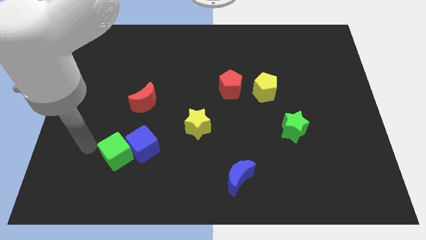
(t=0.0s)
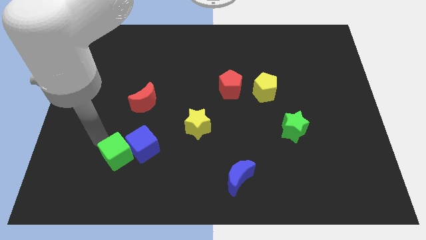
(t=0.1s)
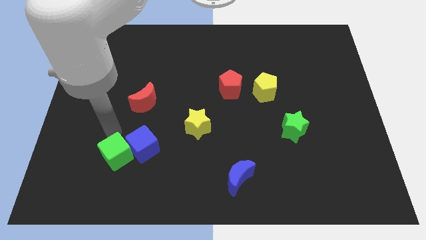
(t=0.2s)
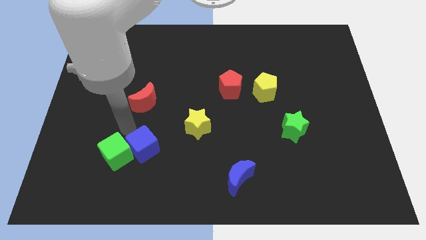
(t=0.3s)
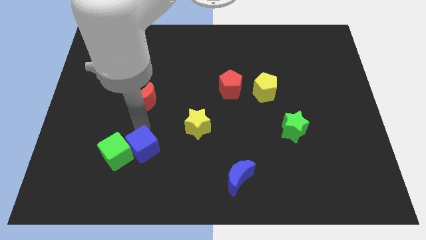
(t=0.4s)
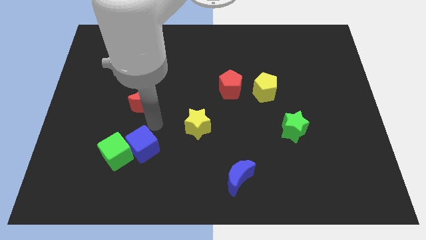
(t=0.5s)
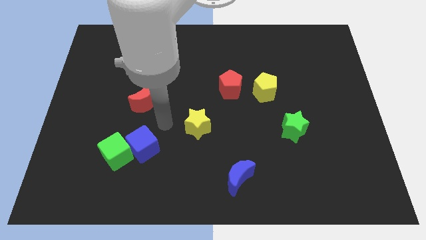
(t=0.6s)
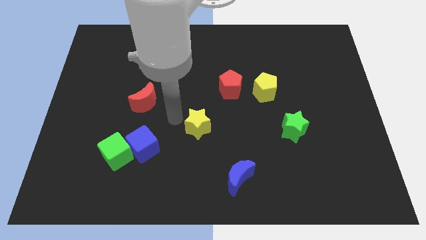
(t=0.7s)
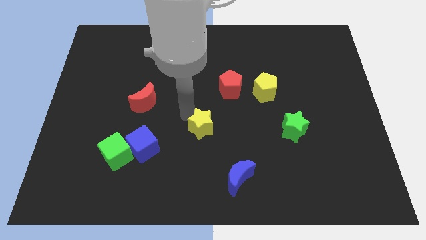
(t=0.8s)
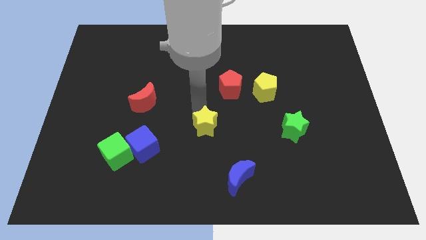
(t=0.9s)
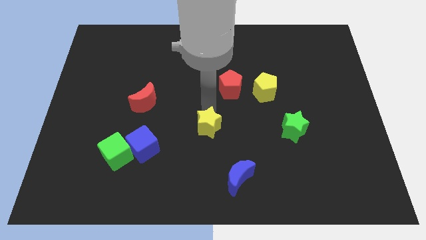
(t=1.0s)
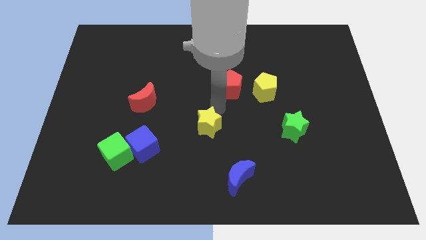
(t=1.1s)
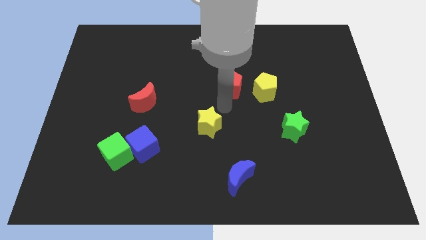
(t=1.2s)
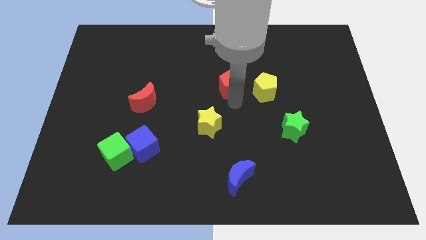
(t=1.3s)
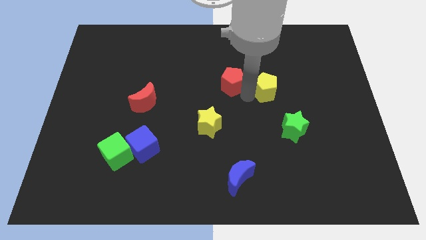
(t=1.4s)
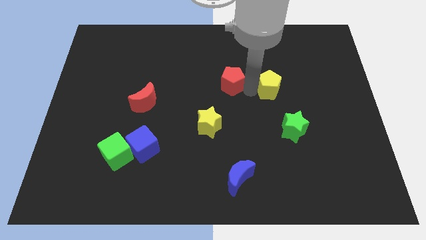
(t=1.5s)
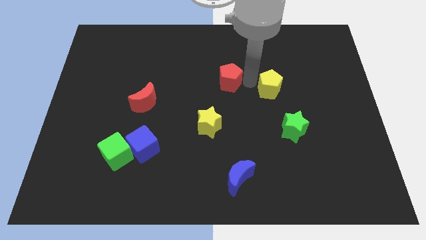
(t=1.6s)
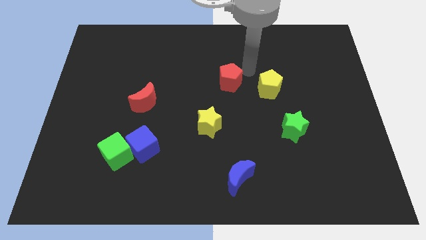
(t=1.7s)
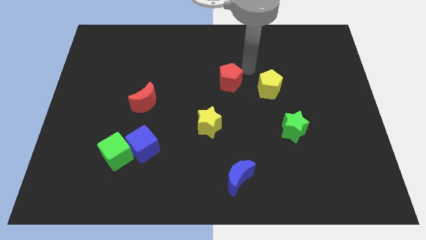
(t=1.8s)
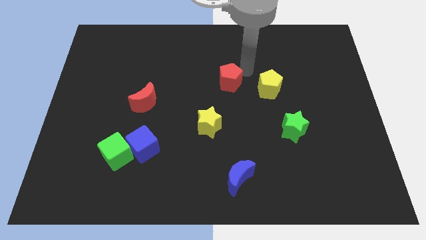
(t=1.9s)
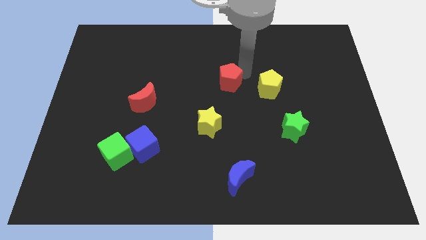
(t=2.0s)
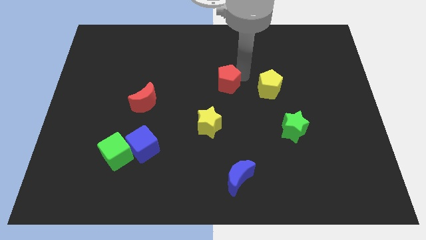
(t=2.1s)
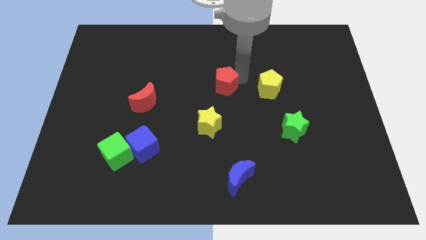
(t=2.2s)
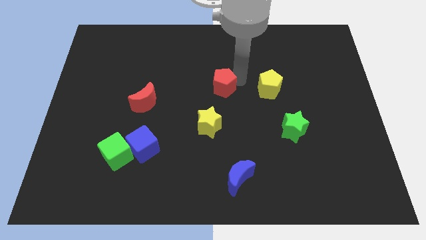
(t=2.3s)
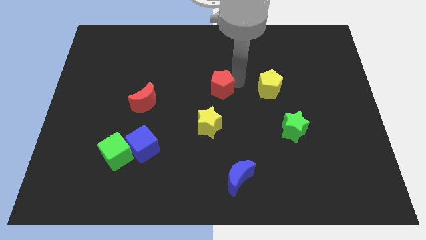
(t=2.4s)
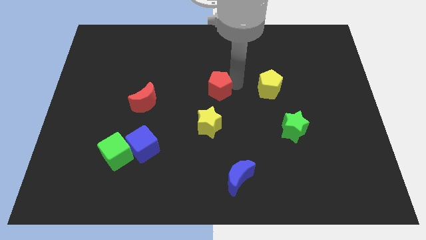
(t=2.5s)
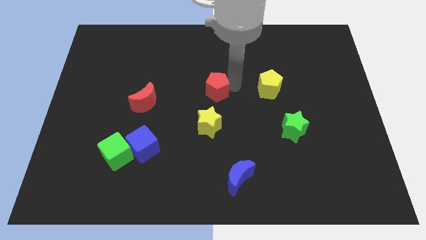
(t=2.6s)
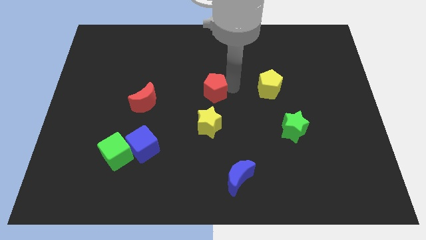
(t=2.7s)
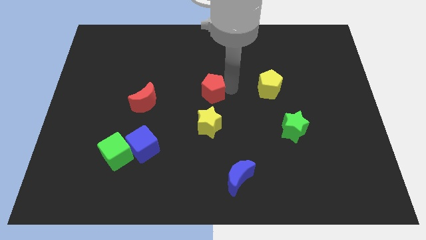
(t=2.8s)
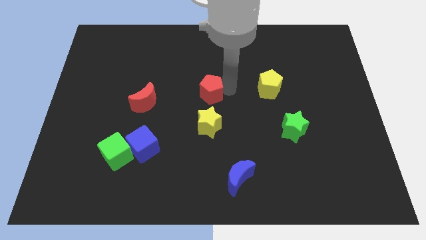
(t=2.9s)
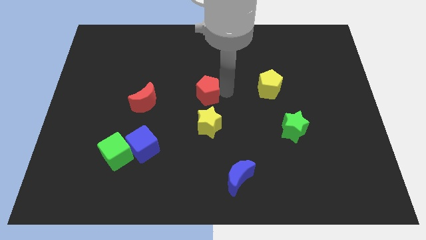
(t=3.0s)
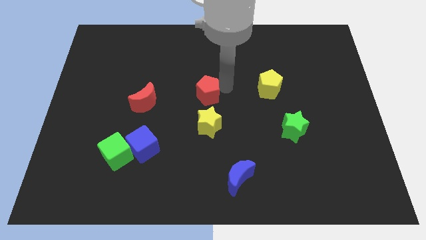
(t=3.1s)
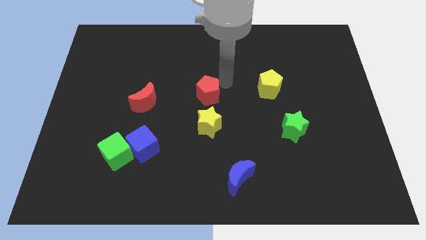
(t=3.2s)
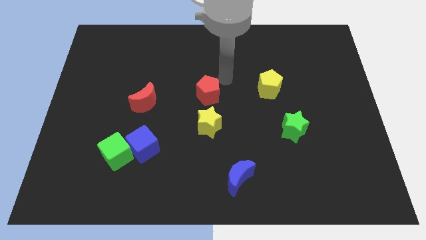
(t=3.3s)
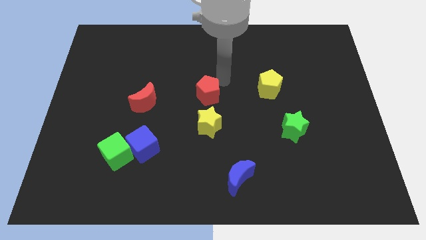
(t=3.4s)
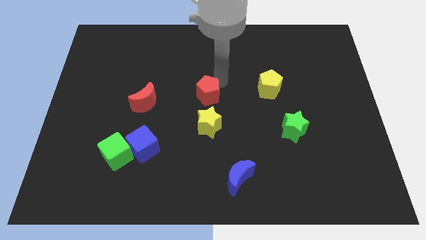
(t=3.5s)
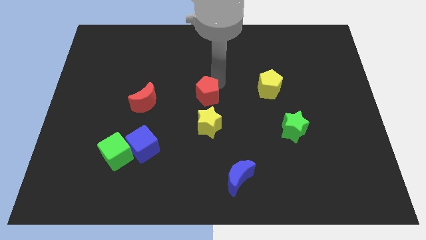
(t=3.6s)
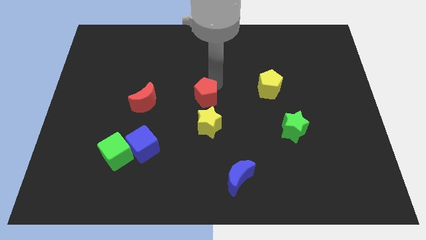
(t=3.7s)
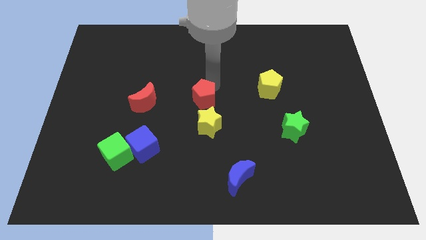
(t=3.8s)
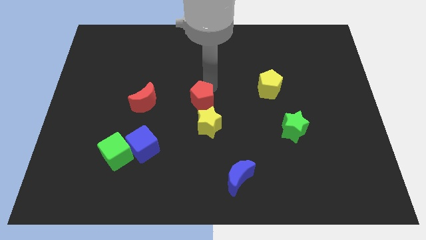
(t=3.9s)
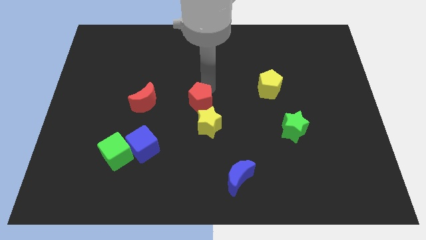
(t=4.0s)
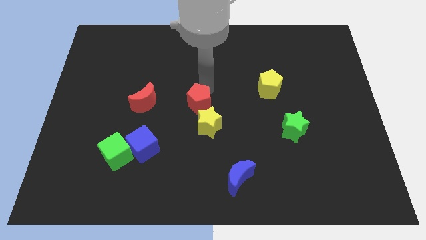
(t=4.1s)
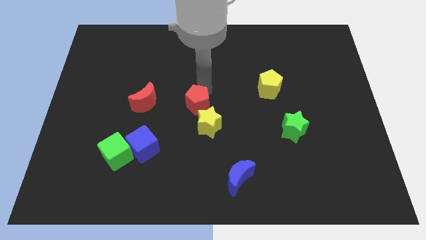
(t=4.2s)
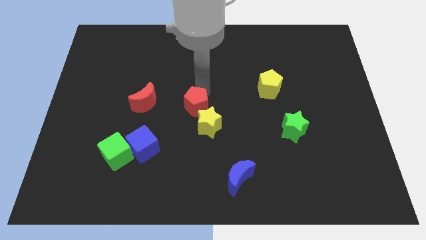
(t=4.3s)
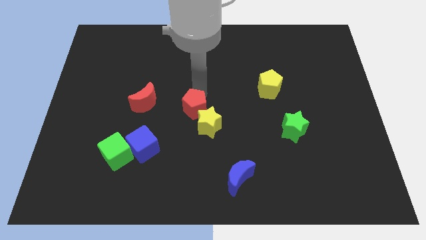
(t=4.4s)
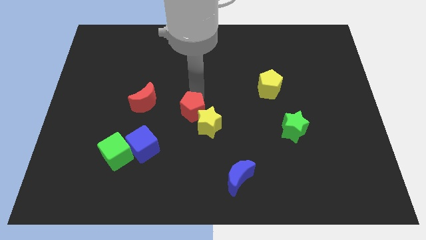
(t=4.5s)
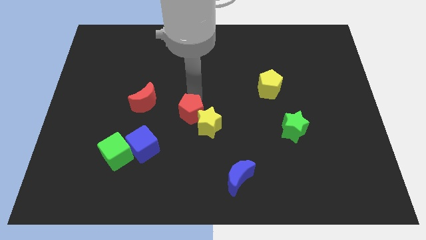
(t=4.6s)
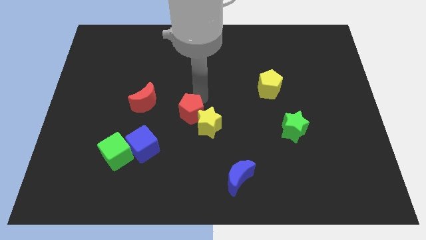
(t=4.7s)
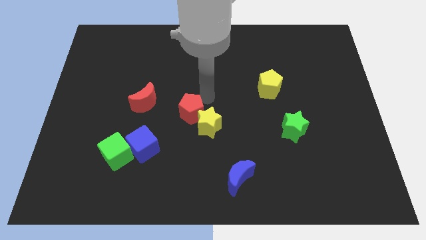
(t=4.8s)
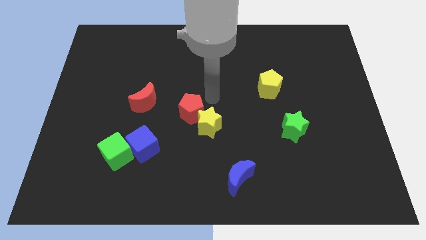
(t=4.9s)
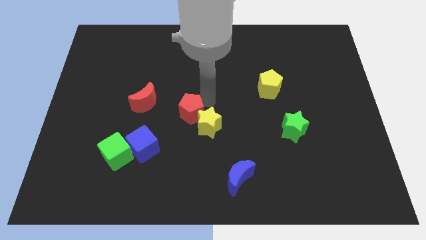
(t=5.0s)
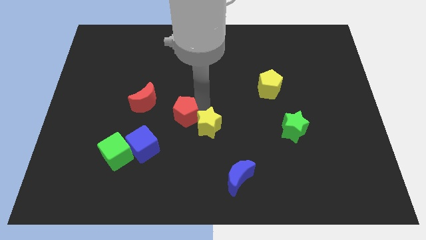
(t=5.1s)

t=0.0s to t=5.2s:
push the red pentagon to the top right of the blue cube

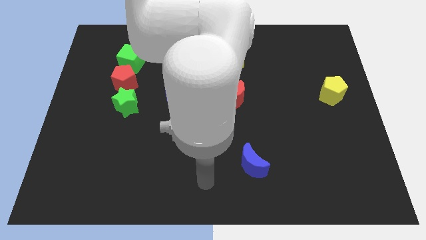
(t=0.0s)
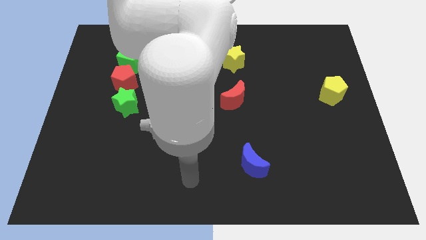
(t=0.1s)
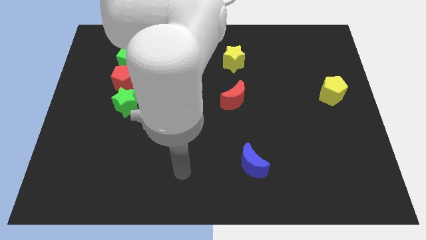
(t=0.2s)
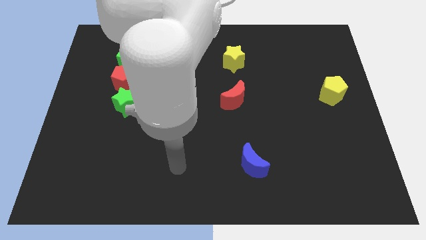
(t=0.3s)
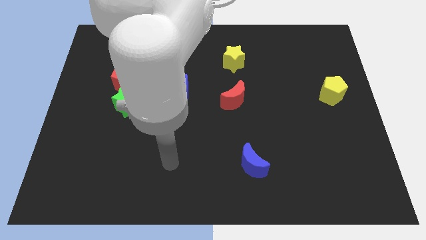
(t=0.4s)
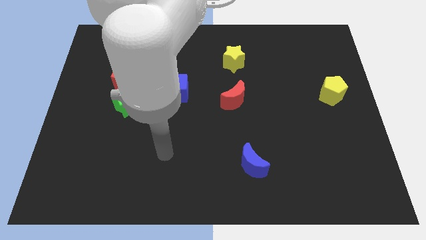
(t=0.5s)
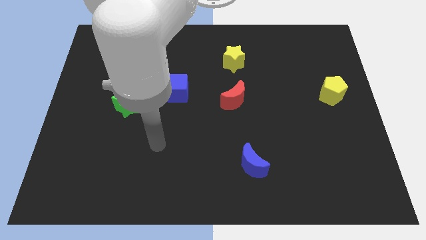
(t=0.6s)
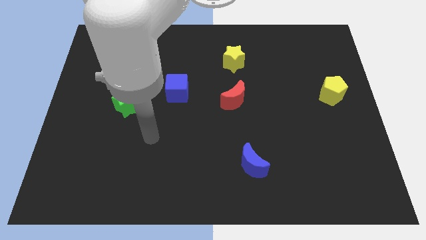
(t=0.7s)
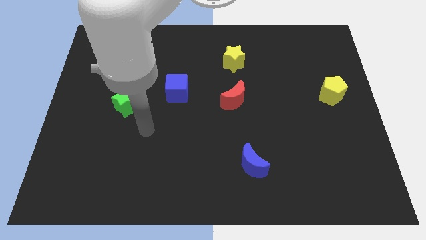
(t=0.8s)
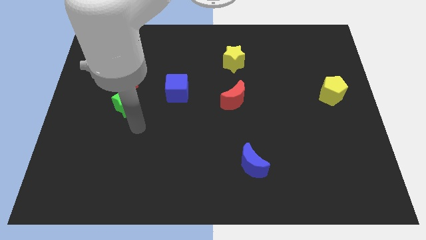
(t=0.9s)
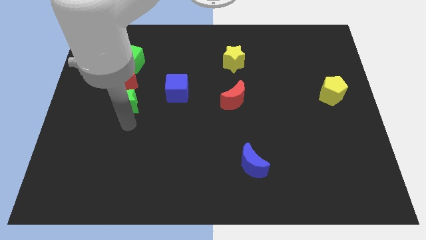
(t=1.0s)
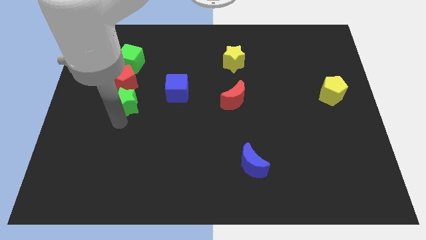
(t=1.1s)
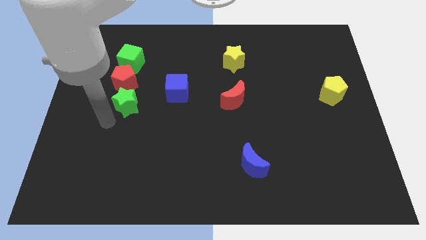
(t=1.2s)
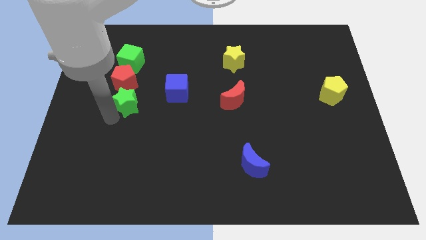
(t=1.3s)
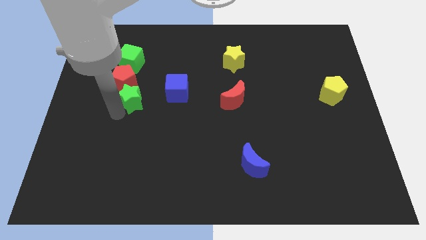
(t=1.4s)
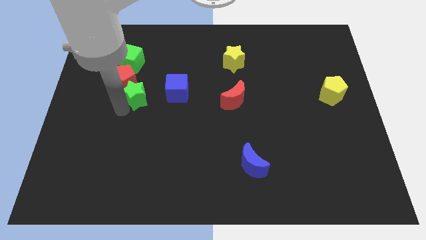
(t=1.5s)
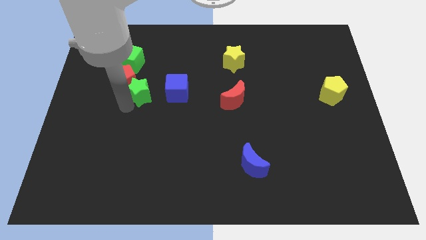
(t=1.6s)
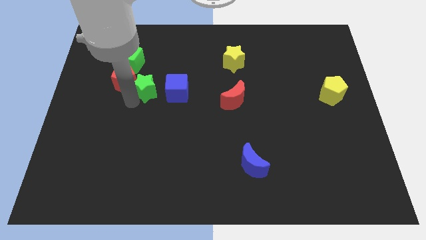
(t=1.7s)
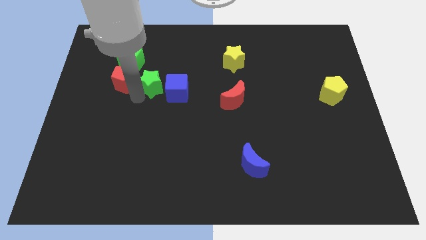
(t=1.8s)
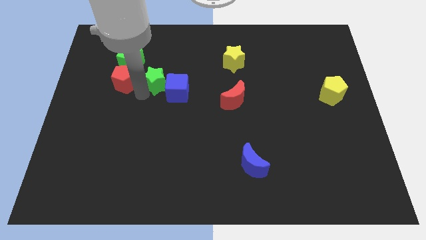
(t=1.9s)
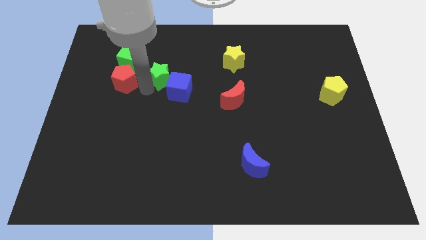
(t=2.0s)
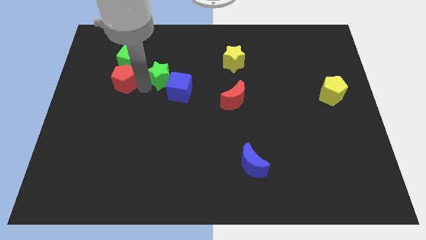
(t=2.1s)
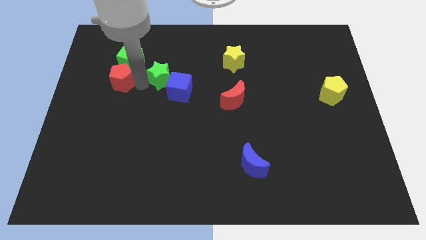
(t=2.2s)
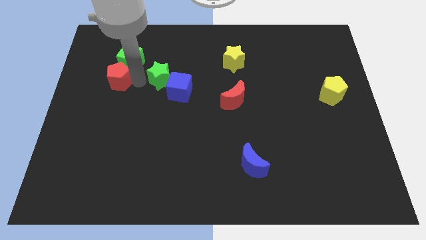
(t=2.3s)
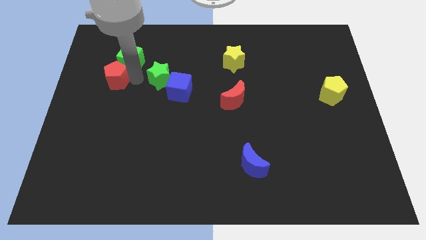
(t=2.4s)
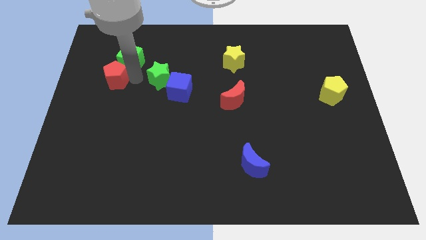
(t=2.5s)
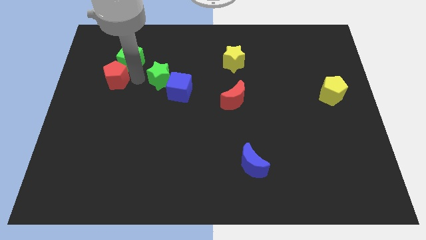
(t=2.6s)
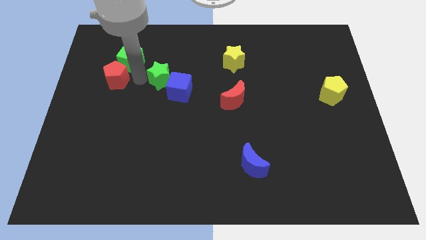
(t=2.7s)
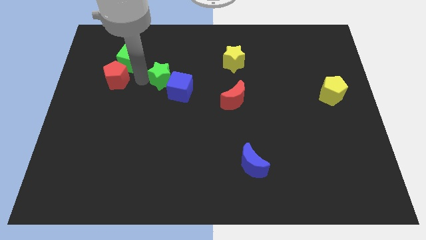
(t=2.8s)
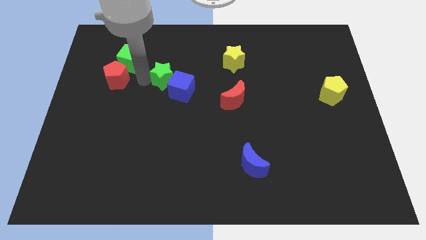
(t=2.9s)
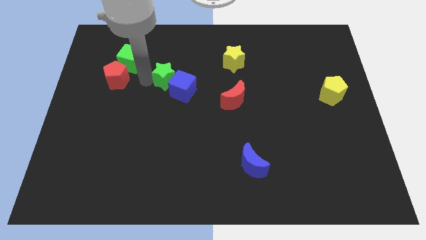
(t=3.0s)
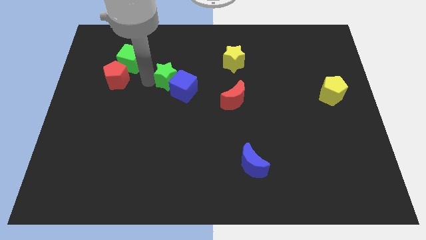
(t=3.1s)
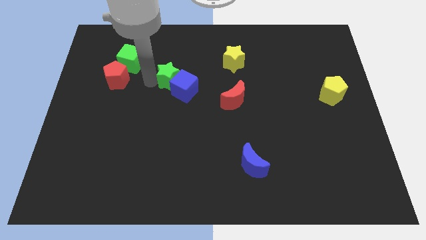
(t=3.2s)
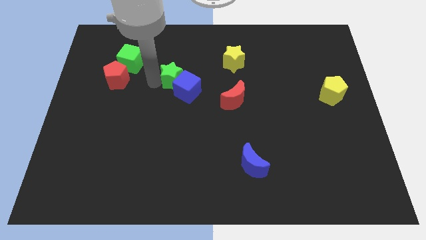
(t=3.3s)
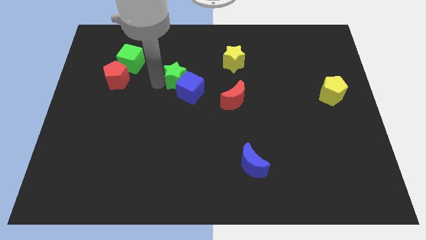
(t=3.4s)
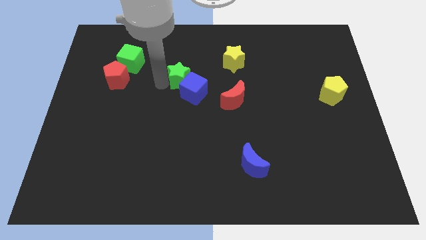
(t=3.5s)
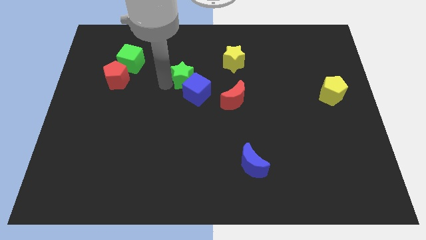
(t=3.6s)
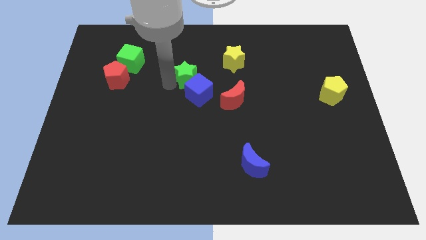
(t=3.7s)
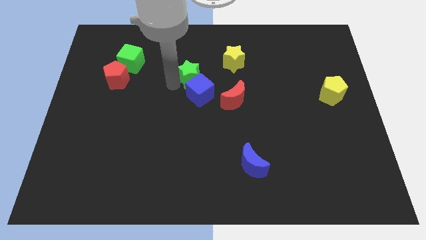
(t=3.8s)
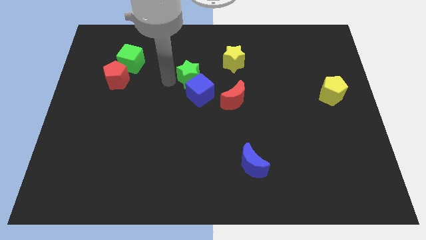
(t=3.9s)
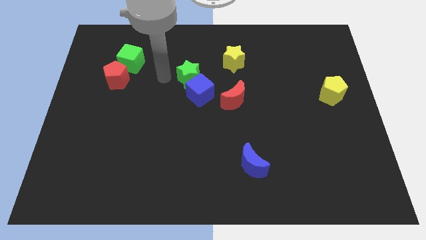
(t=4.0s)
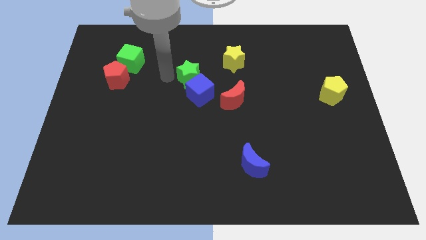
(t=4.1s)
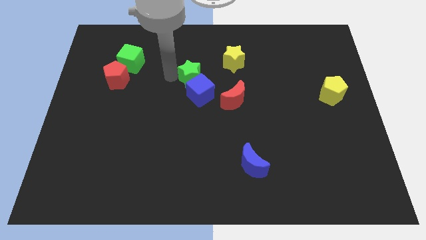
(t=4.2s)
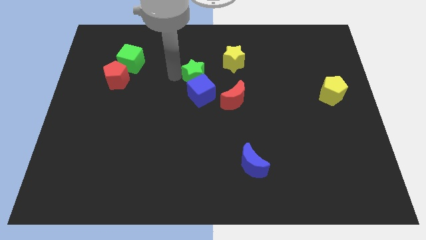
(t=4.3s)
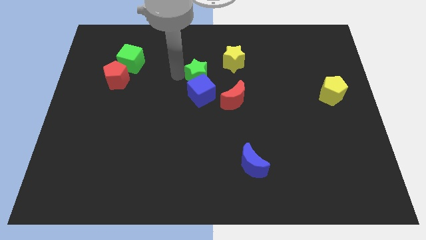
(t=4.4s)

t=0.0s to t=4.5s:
move the green star to the top right of the blue cube
